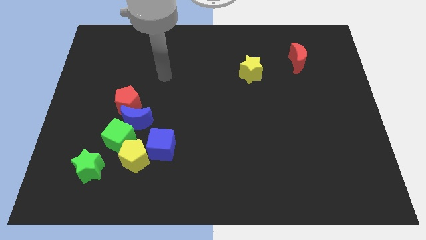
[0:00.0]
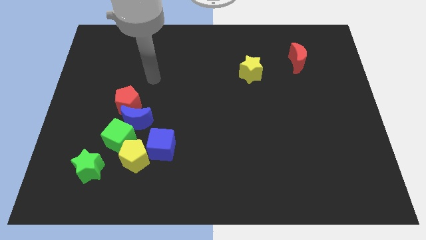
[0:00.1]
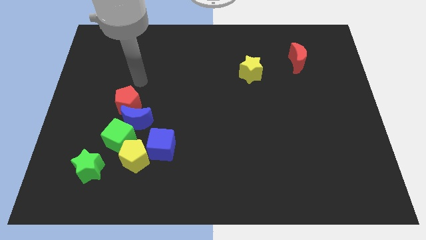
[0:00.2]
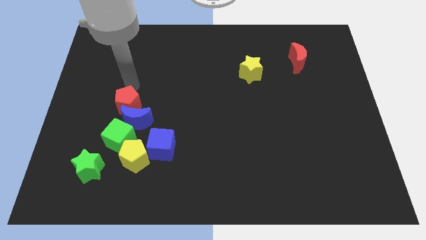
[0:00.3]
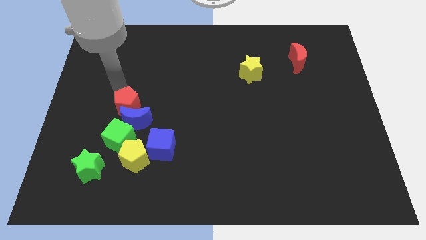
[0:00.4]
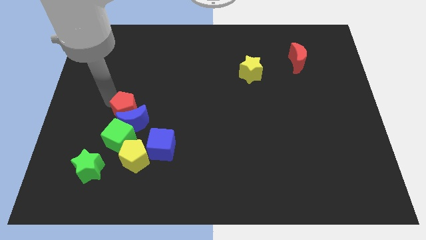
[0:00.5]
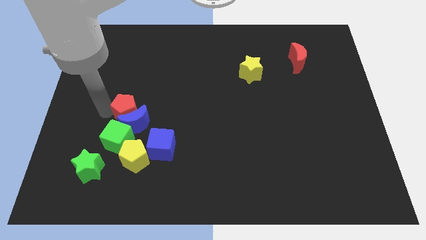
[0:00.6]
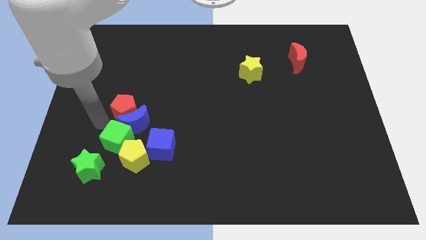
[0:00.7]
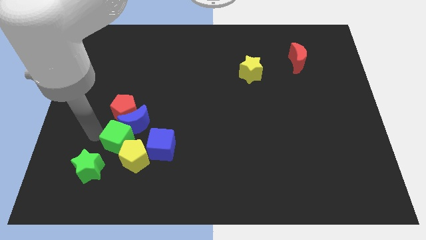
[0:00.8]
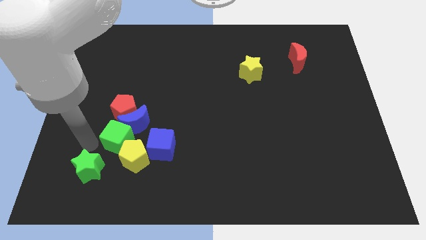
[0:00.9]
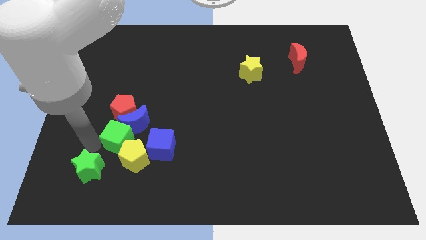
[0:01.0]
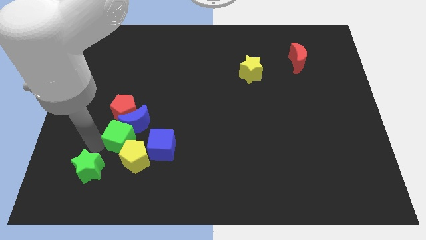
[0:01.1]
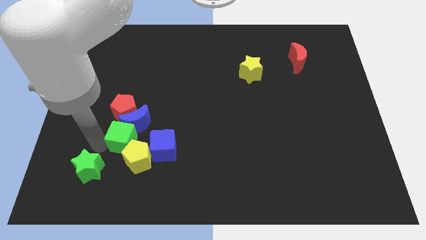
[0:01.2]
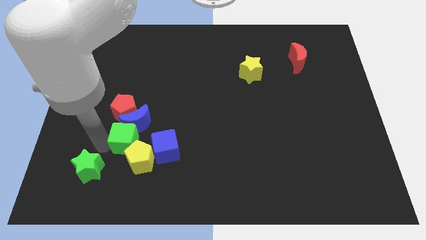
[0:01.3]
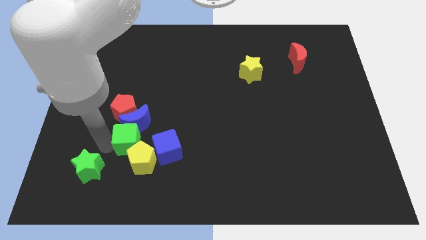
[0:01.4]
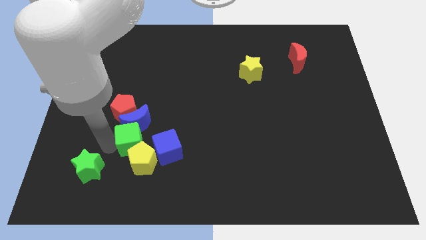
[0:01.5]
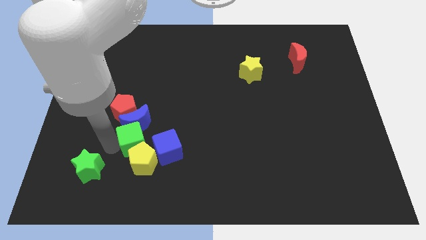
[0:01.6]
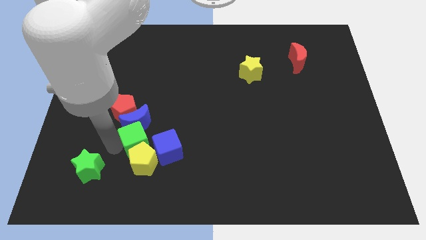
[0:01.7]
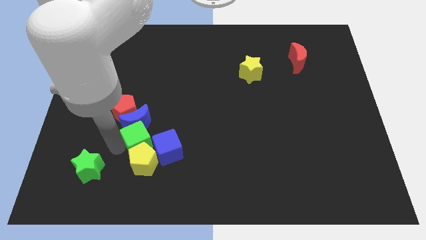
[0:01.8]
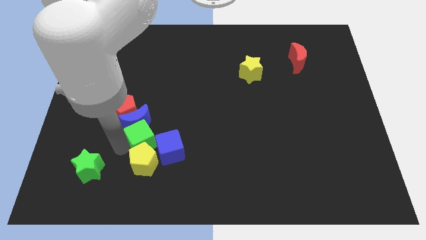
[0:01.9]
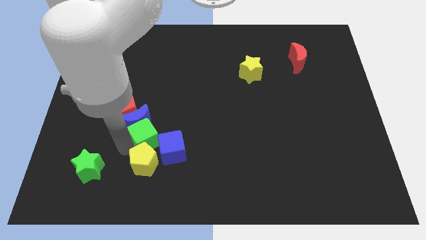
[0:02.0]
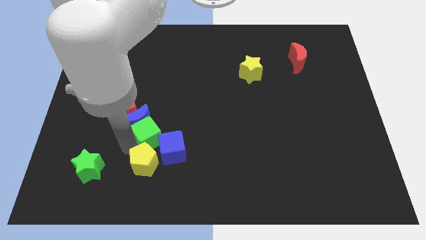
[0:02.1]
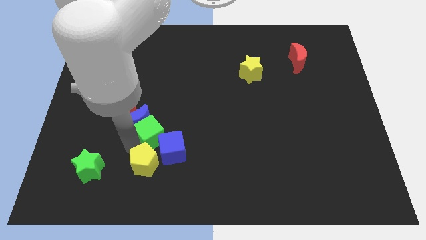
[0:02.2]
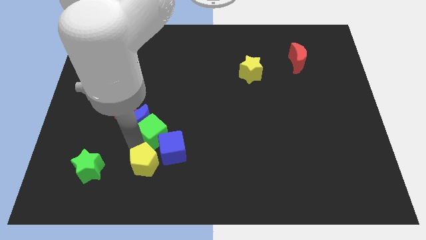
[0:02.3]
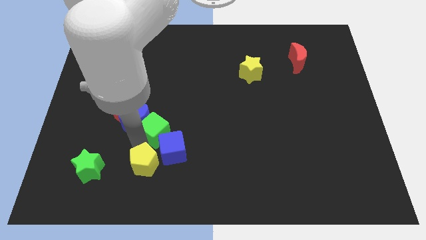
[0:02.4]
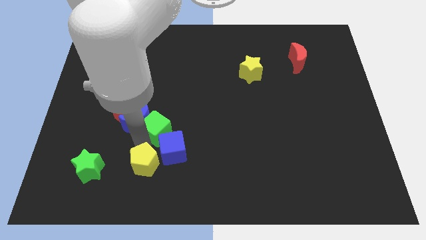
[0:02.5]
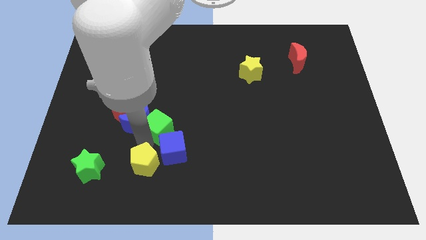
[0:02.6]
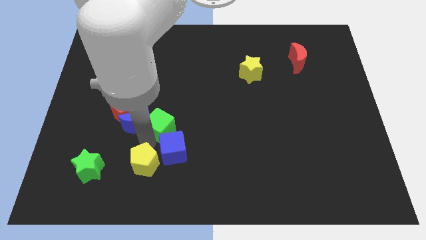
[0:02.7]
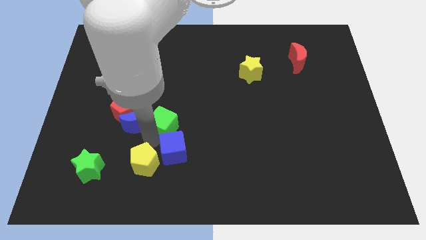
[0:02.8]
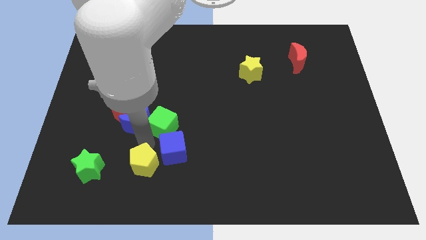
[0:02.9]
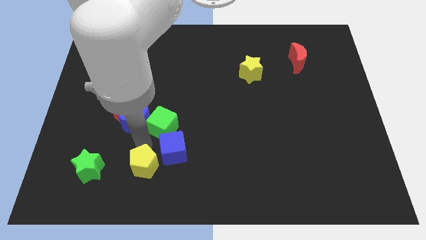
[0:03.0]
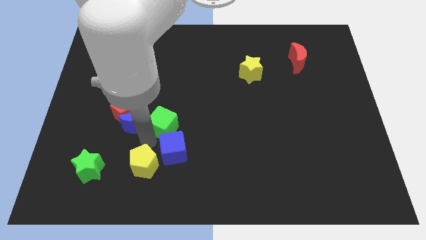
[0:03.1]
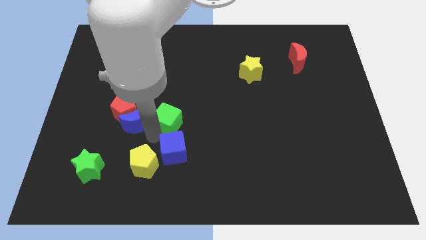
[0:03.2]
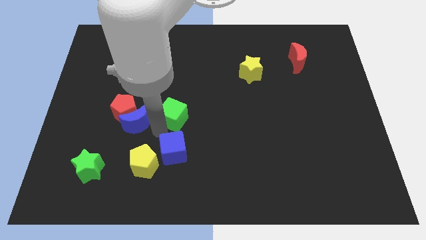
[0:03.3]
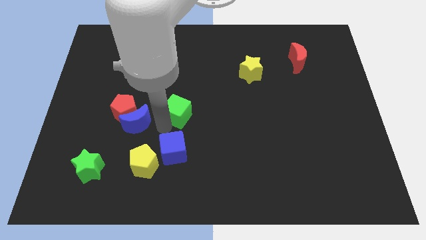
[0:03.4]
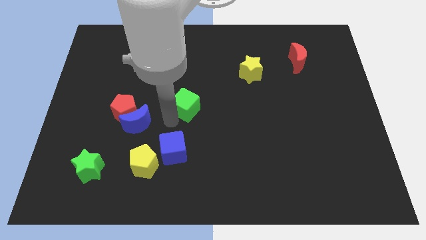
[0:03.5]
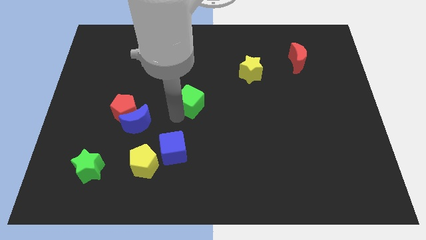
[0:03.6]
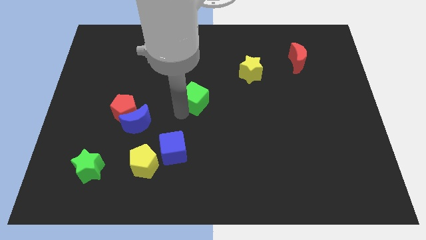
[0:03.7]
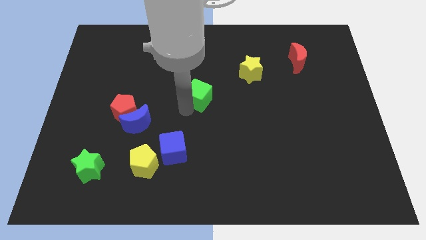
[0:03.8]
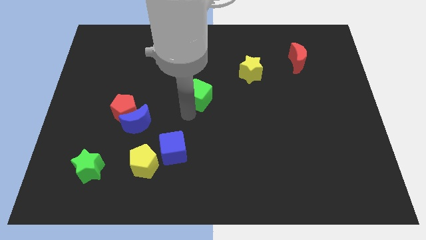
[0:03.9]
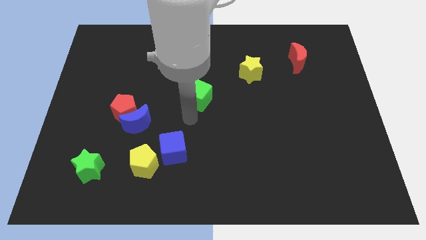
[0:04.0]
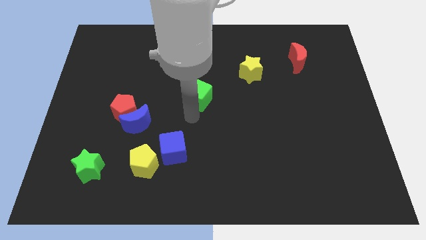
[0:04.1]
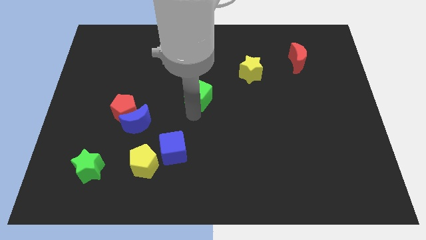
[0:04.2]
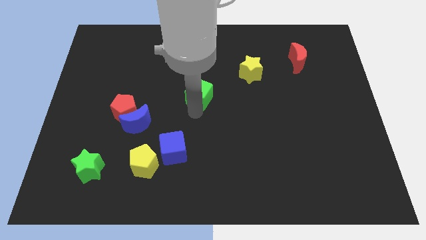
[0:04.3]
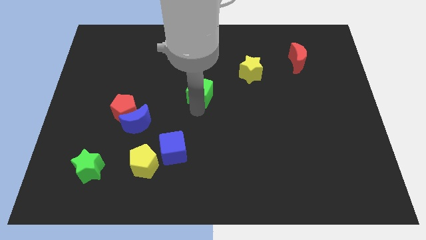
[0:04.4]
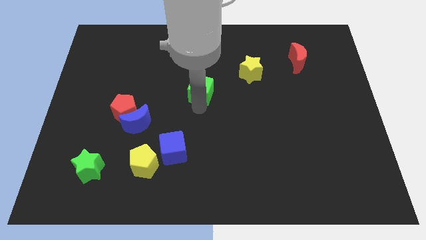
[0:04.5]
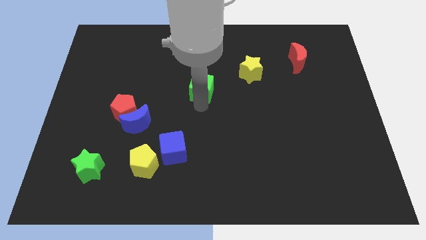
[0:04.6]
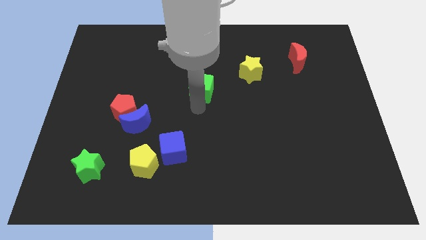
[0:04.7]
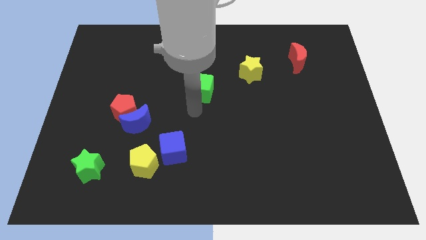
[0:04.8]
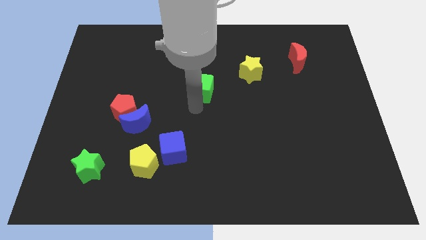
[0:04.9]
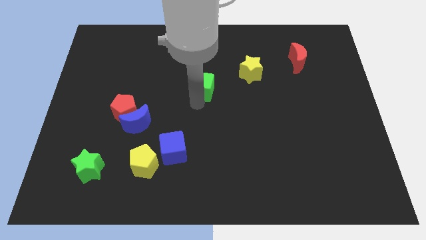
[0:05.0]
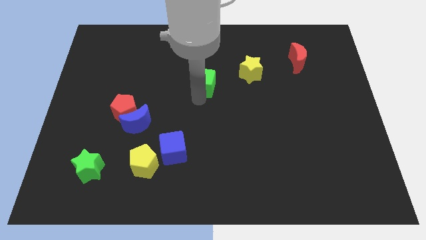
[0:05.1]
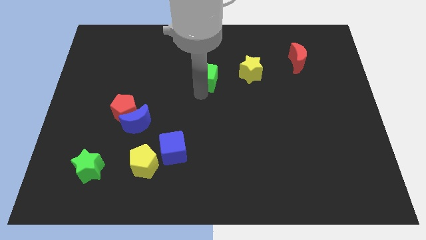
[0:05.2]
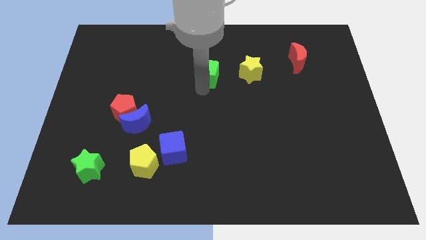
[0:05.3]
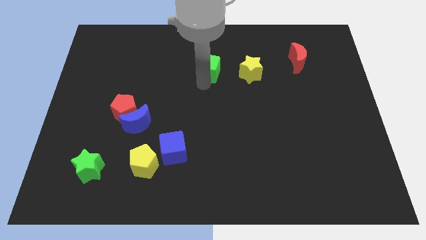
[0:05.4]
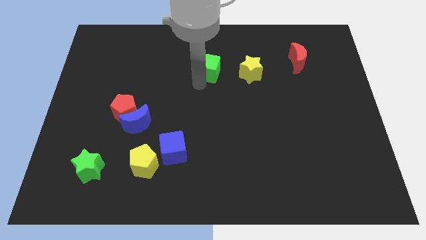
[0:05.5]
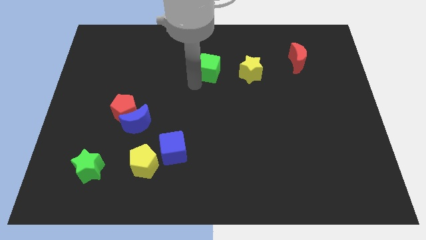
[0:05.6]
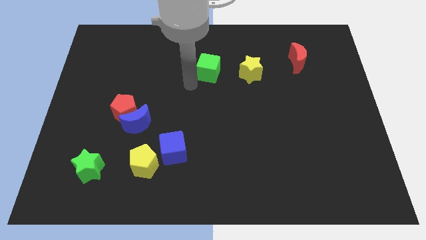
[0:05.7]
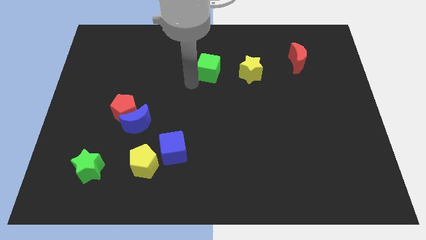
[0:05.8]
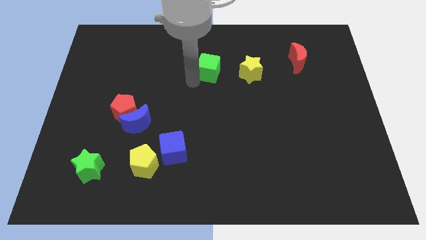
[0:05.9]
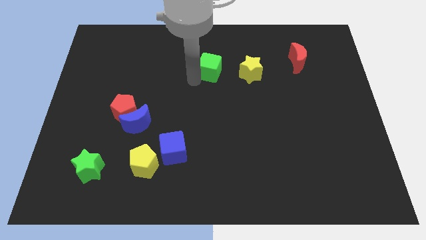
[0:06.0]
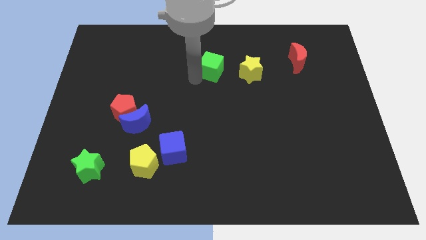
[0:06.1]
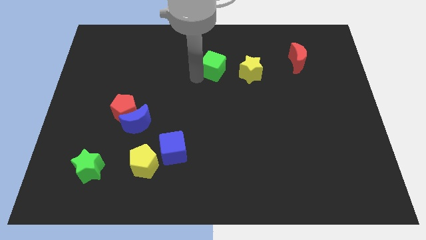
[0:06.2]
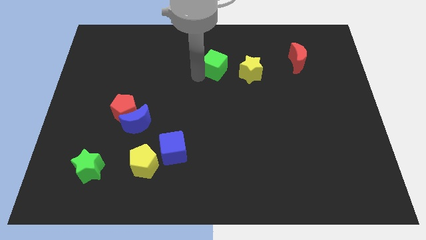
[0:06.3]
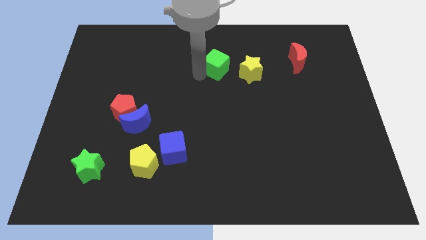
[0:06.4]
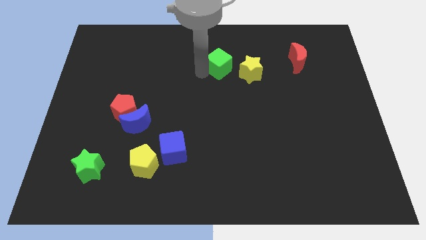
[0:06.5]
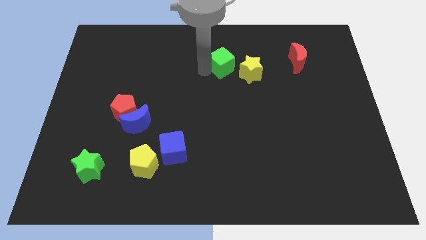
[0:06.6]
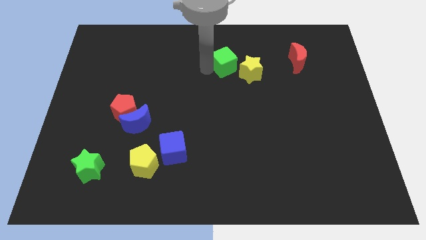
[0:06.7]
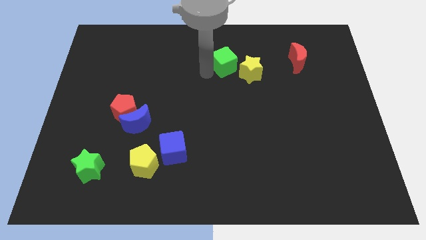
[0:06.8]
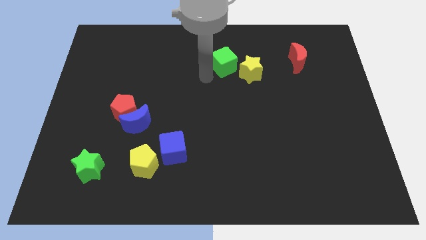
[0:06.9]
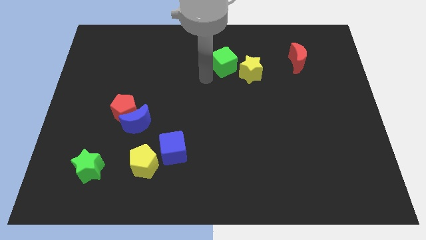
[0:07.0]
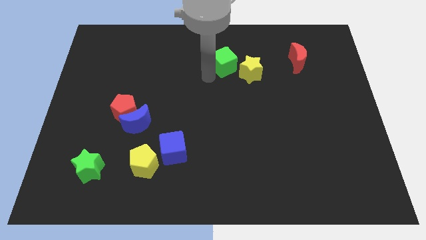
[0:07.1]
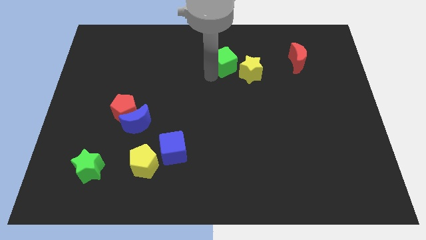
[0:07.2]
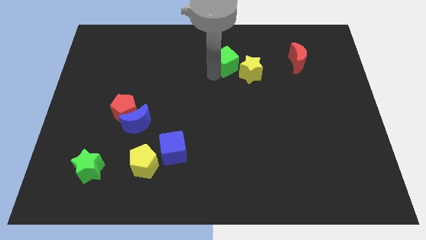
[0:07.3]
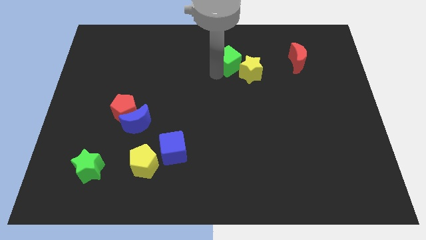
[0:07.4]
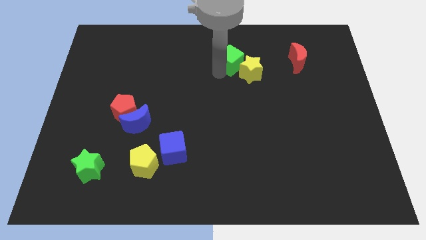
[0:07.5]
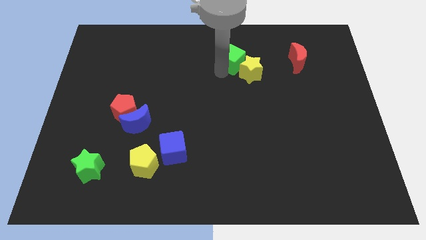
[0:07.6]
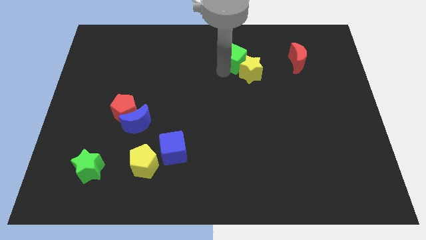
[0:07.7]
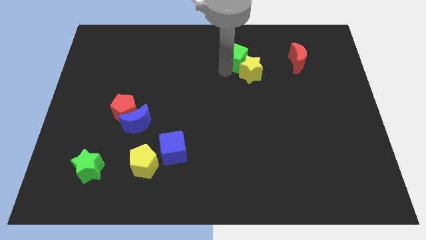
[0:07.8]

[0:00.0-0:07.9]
move the green cube left of the red moon
